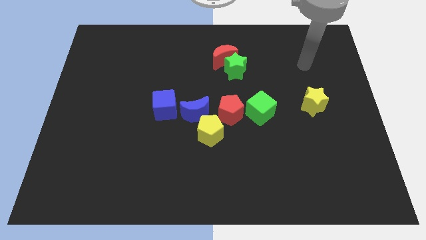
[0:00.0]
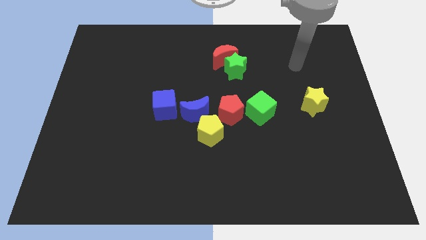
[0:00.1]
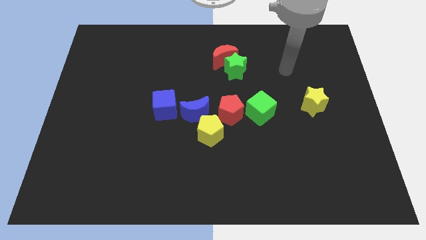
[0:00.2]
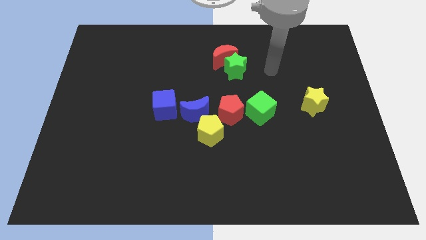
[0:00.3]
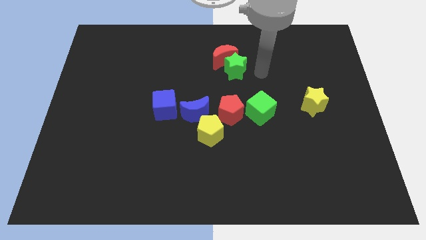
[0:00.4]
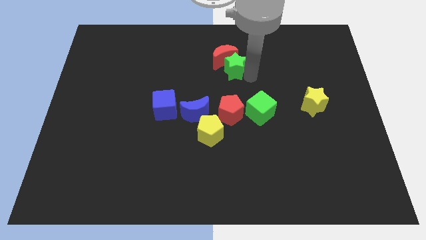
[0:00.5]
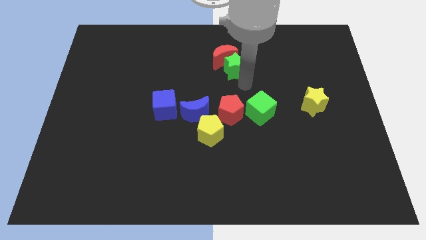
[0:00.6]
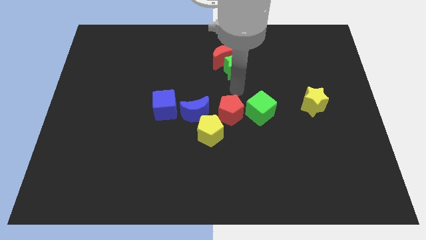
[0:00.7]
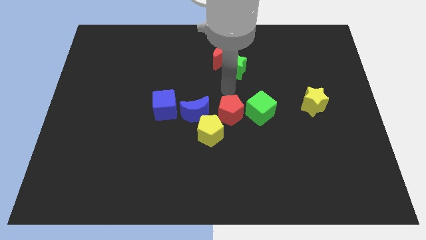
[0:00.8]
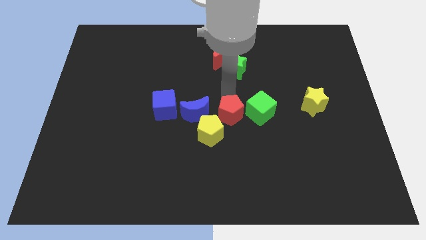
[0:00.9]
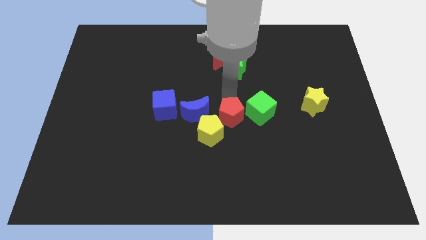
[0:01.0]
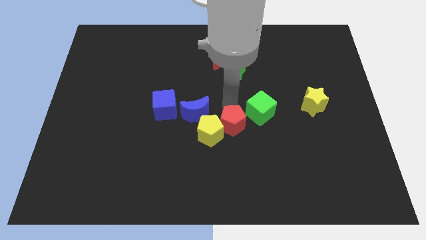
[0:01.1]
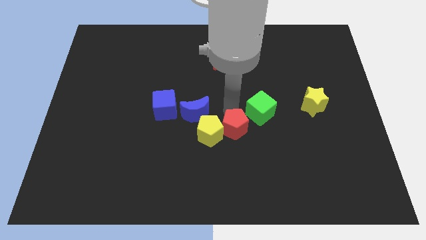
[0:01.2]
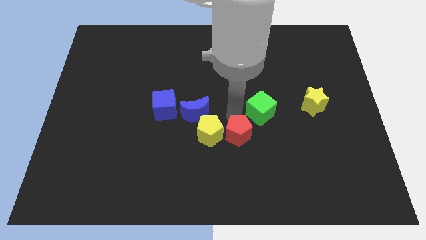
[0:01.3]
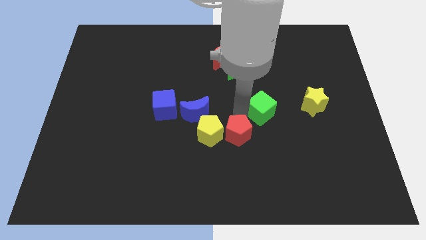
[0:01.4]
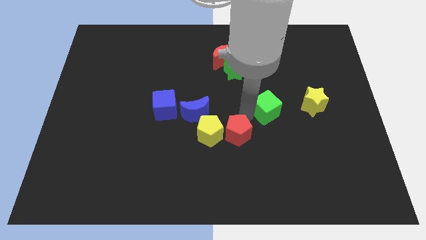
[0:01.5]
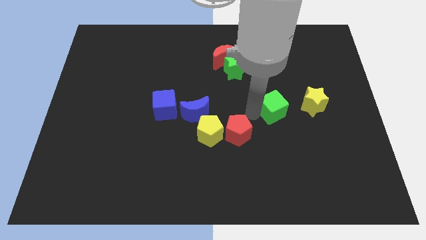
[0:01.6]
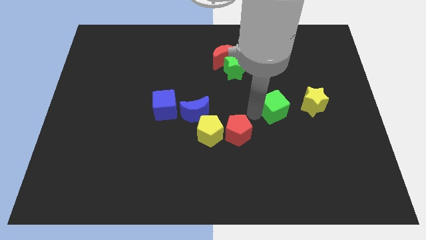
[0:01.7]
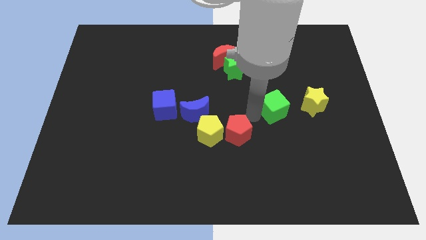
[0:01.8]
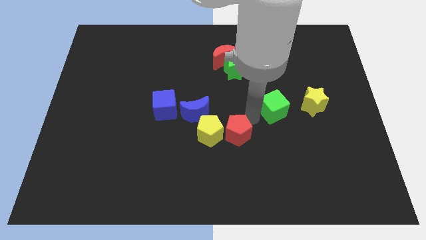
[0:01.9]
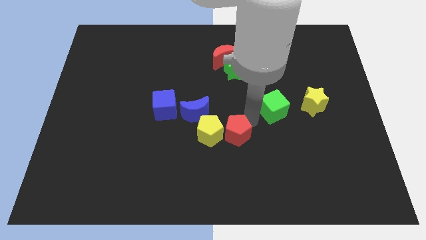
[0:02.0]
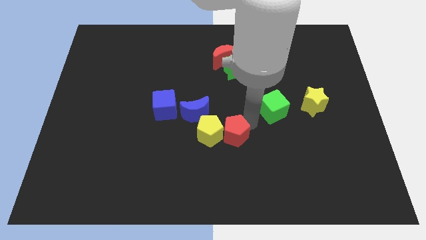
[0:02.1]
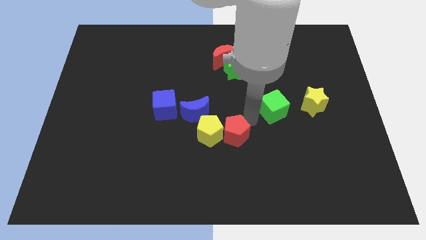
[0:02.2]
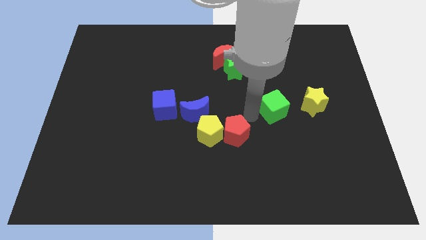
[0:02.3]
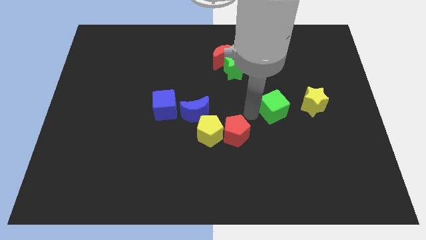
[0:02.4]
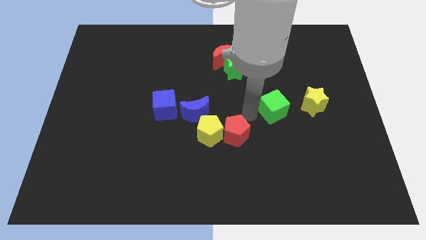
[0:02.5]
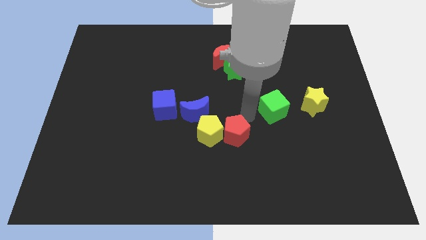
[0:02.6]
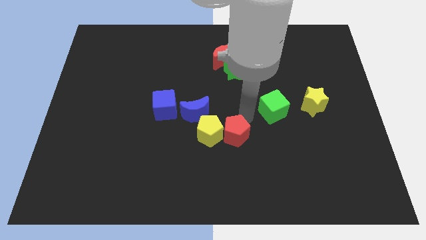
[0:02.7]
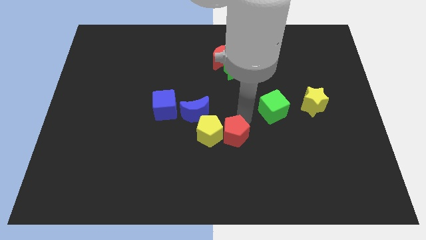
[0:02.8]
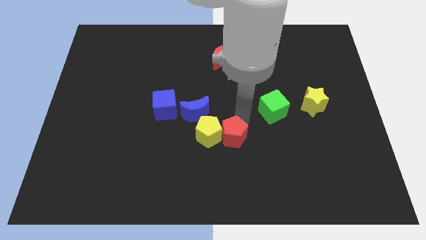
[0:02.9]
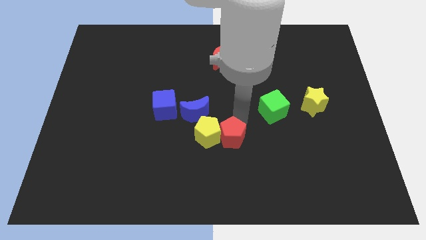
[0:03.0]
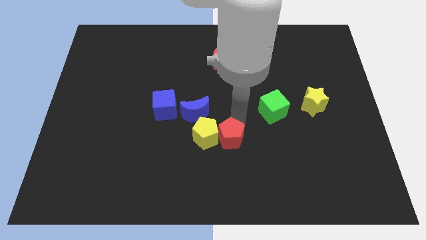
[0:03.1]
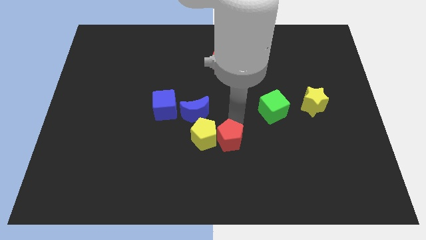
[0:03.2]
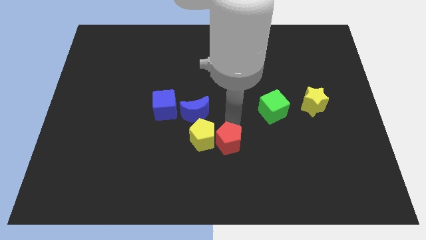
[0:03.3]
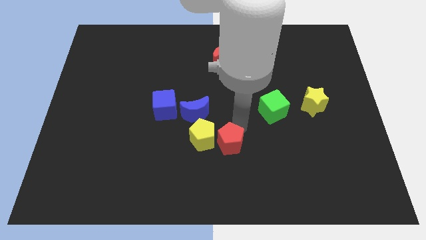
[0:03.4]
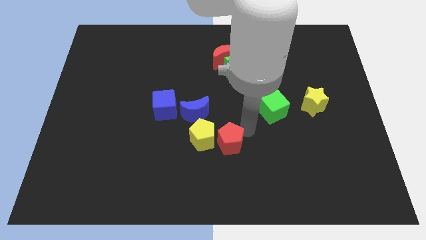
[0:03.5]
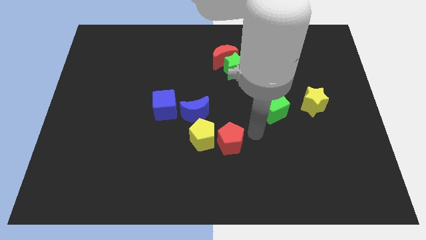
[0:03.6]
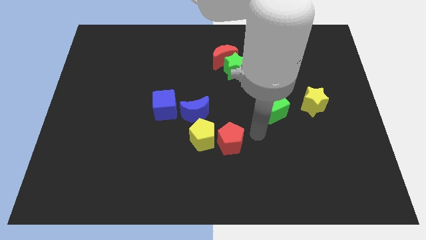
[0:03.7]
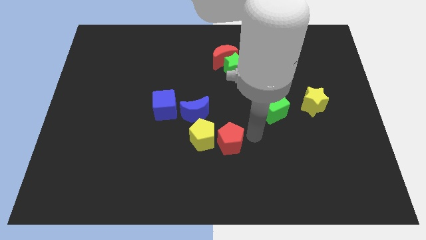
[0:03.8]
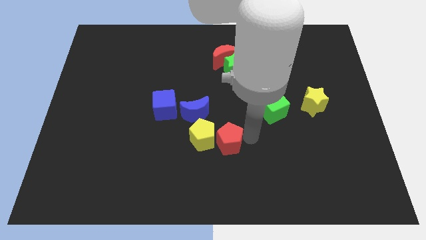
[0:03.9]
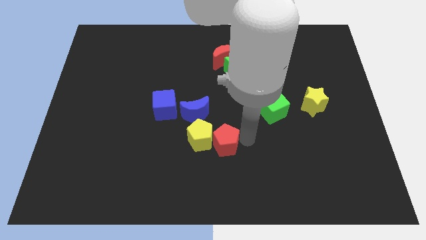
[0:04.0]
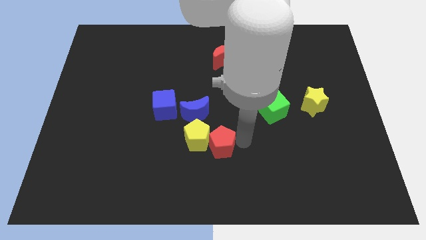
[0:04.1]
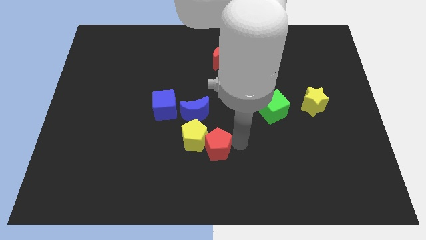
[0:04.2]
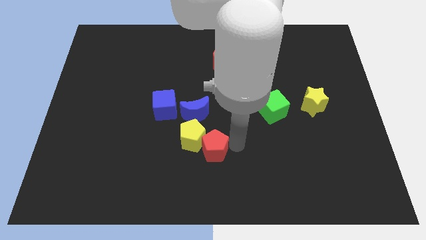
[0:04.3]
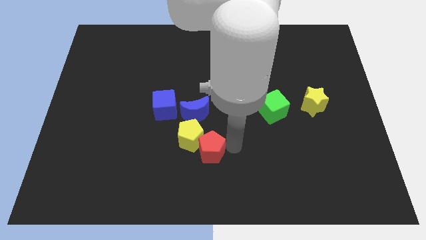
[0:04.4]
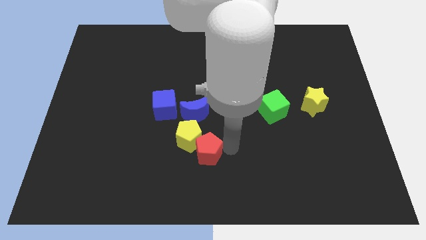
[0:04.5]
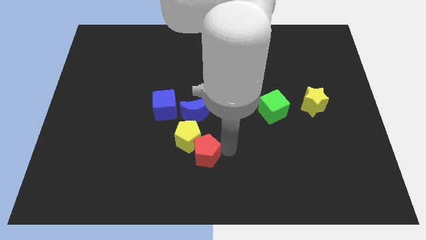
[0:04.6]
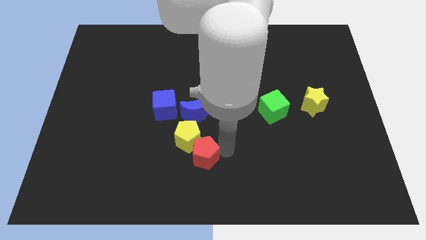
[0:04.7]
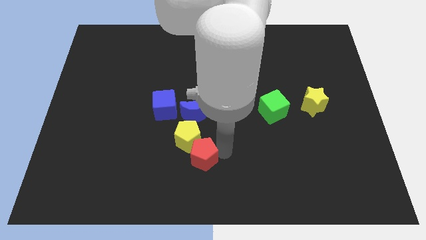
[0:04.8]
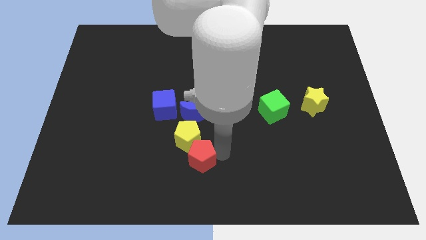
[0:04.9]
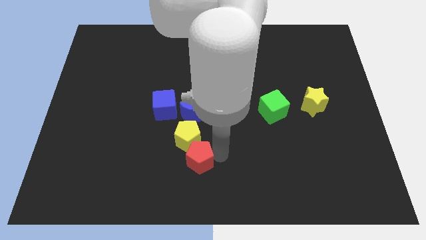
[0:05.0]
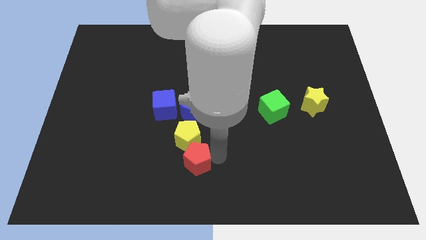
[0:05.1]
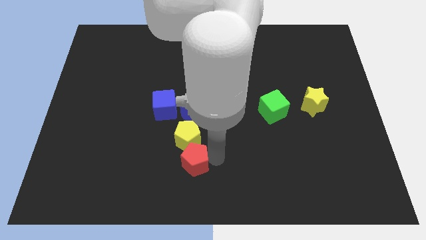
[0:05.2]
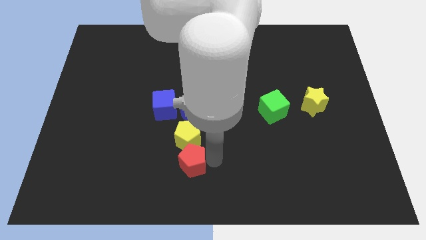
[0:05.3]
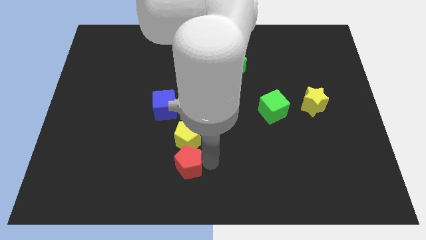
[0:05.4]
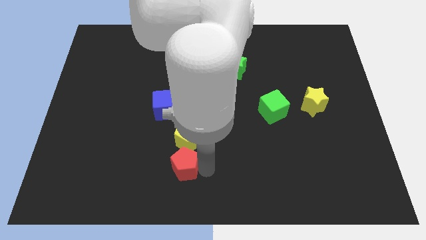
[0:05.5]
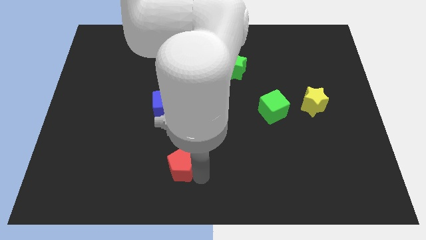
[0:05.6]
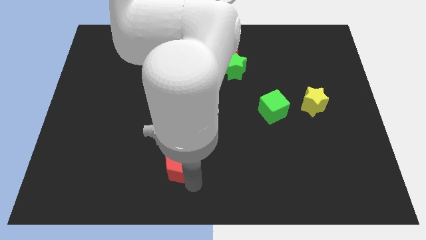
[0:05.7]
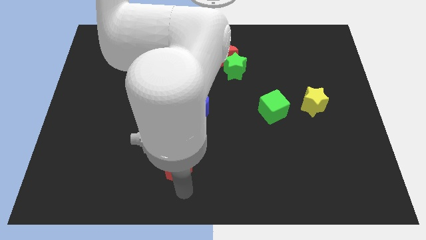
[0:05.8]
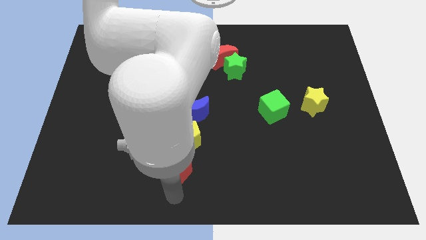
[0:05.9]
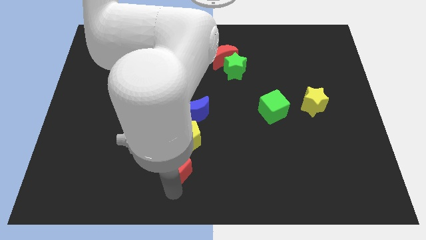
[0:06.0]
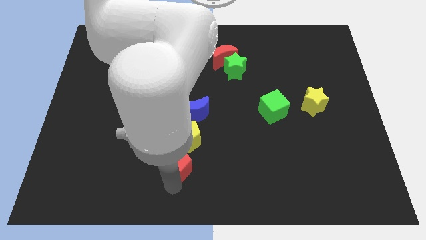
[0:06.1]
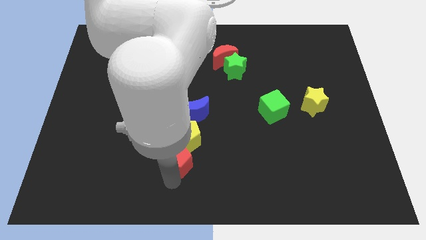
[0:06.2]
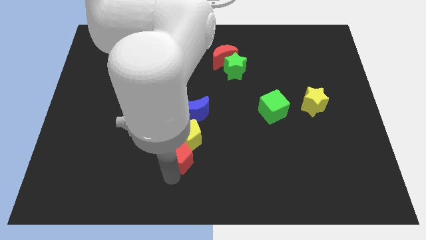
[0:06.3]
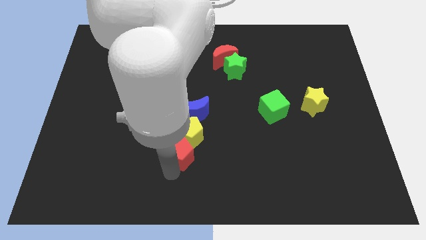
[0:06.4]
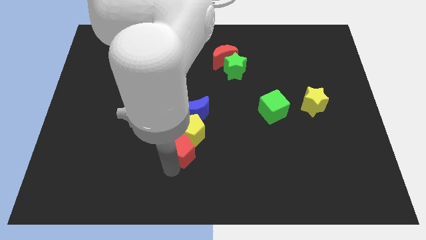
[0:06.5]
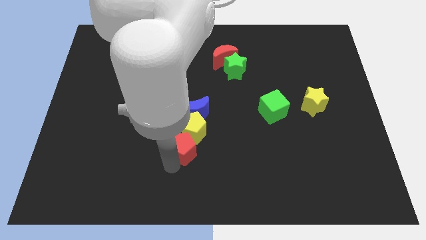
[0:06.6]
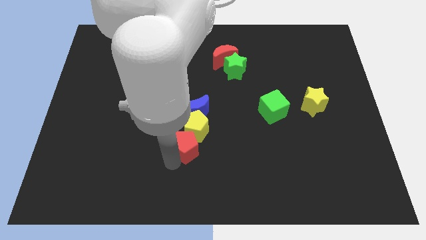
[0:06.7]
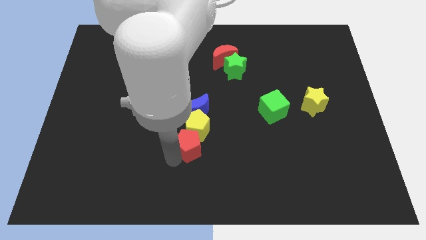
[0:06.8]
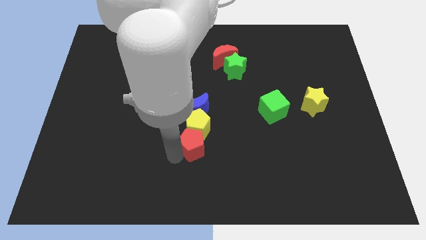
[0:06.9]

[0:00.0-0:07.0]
push the red pentagon to the bottom right side of the blue cube
